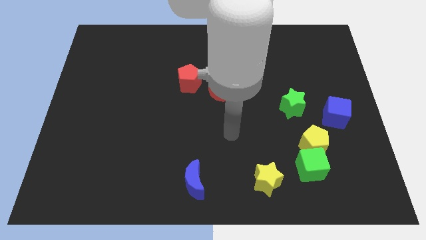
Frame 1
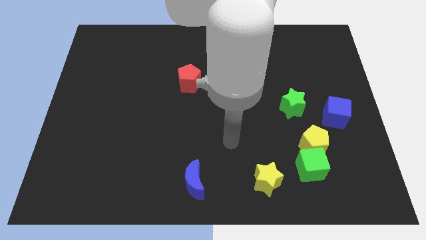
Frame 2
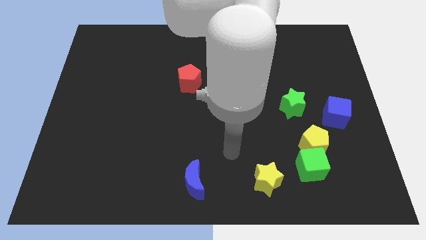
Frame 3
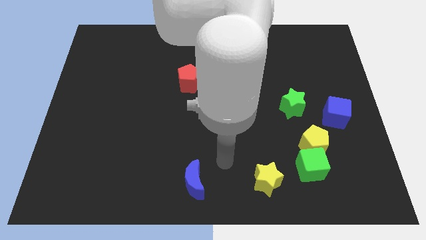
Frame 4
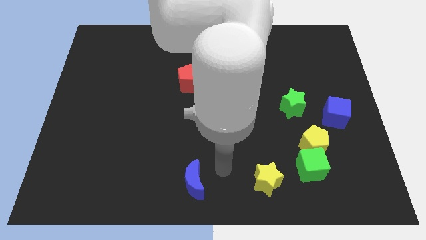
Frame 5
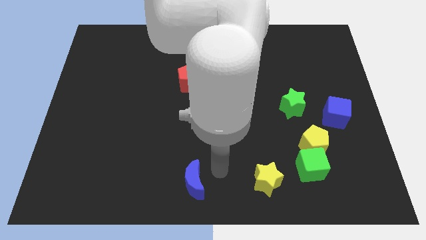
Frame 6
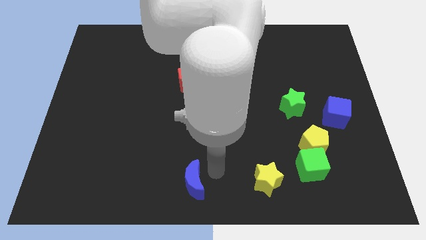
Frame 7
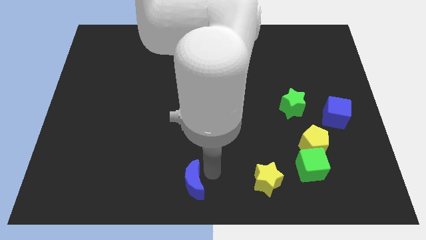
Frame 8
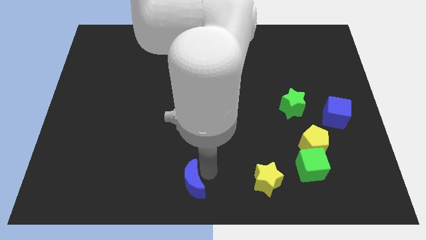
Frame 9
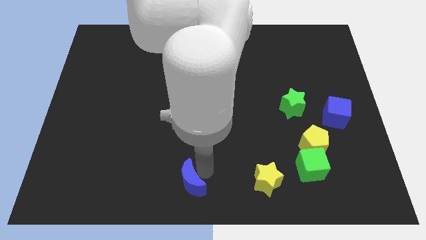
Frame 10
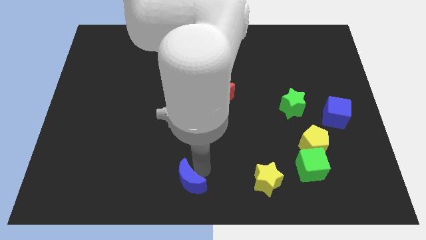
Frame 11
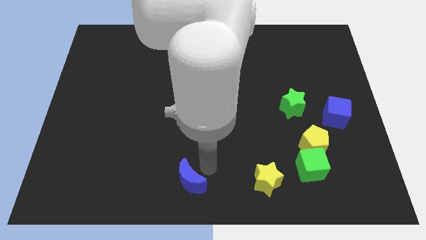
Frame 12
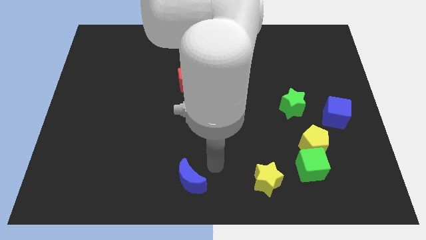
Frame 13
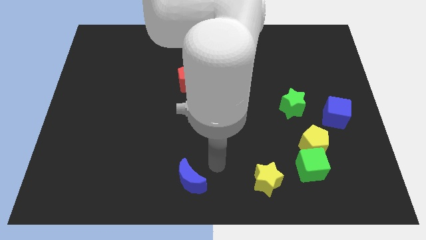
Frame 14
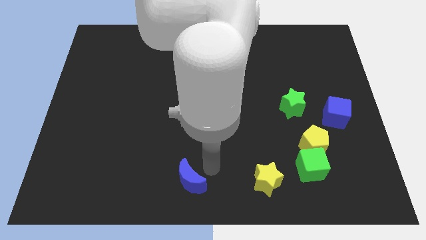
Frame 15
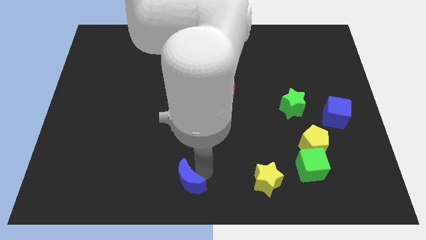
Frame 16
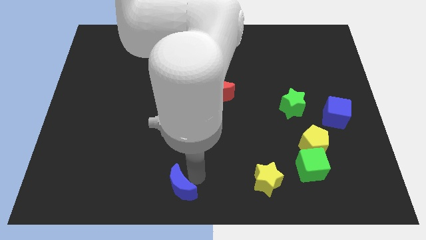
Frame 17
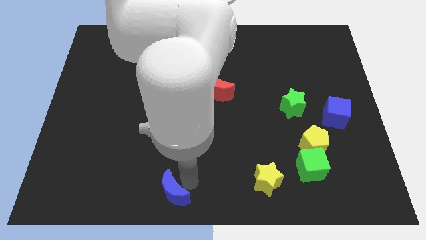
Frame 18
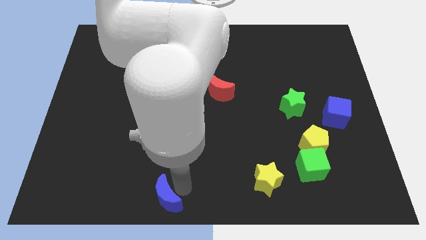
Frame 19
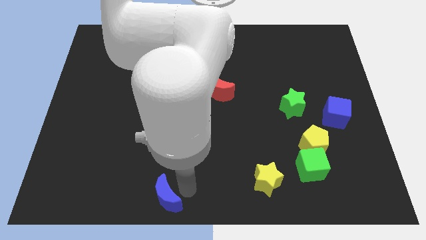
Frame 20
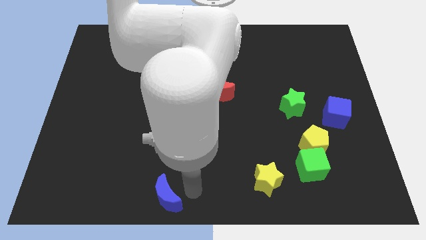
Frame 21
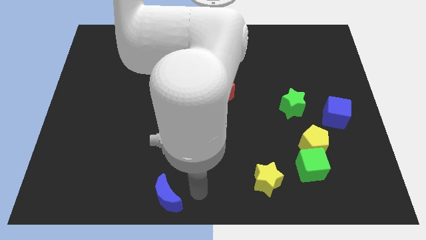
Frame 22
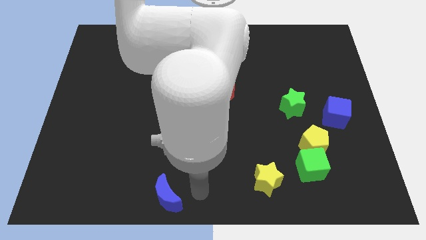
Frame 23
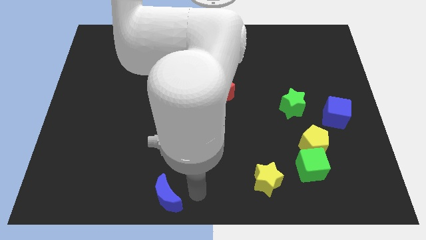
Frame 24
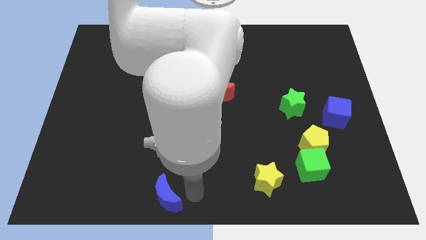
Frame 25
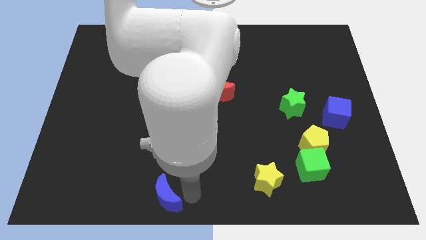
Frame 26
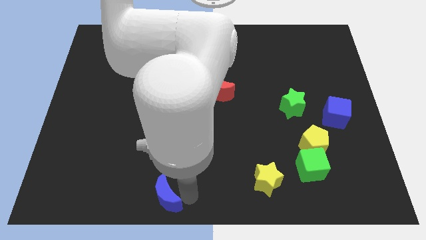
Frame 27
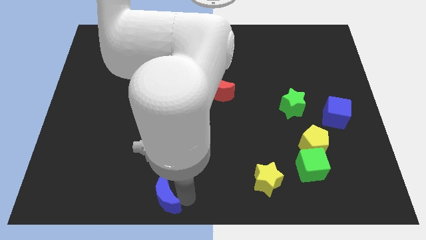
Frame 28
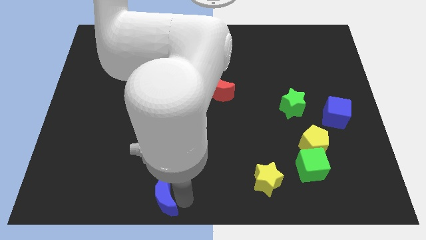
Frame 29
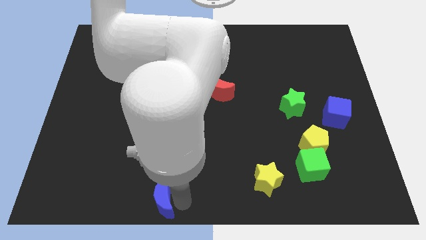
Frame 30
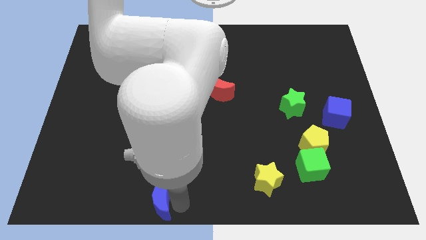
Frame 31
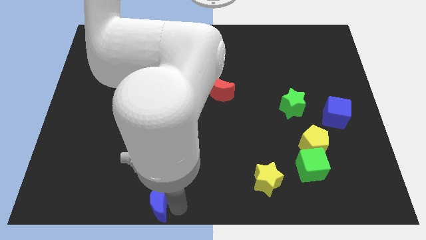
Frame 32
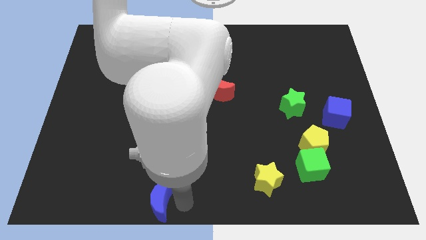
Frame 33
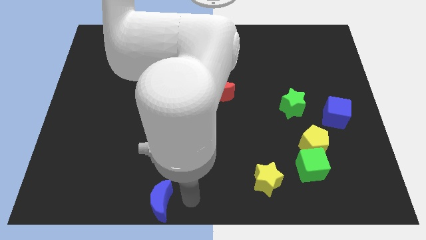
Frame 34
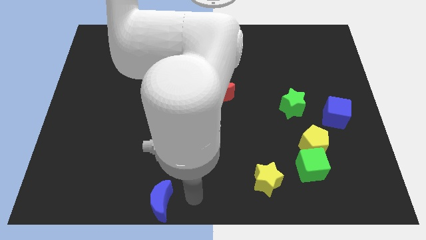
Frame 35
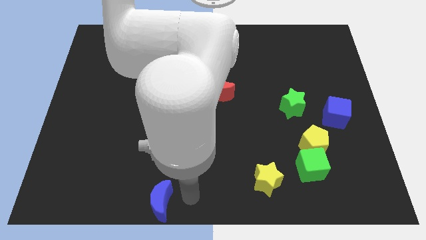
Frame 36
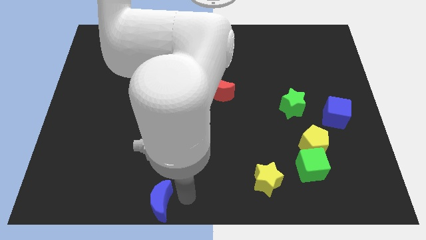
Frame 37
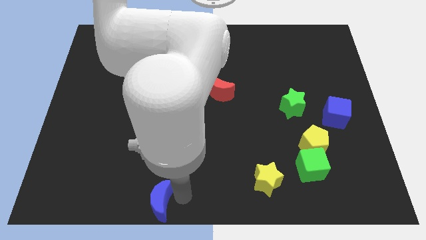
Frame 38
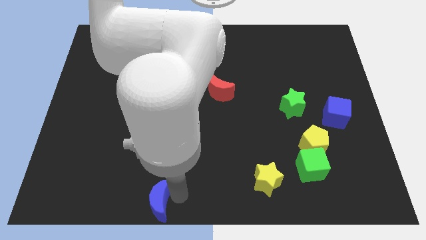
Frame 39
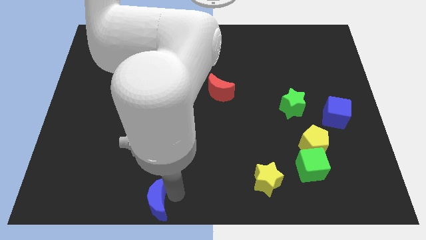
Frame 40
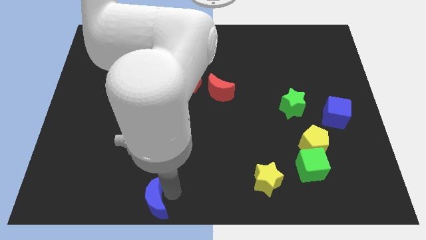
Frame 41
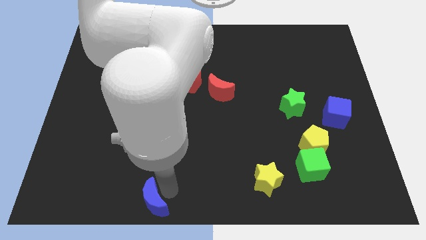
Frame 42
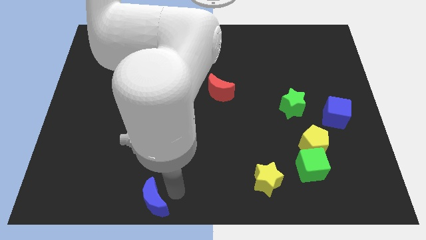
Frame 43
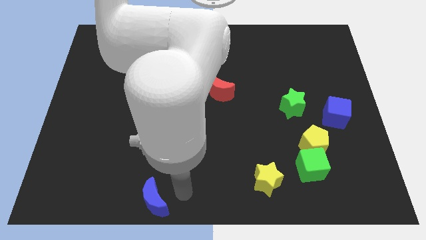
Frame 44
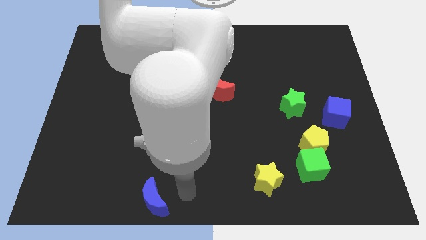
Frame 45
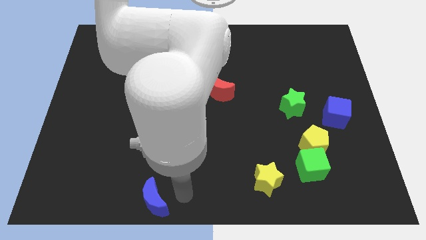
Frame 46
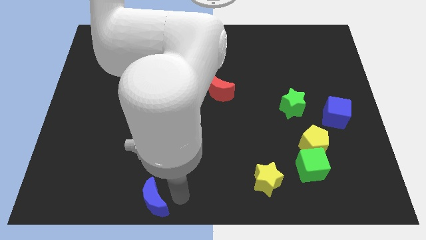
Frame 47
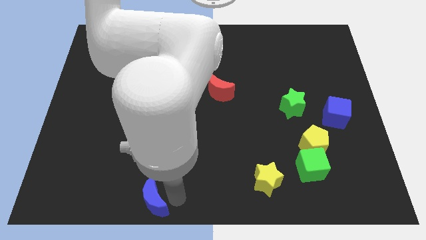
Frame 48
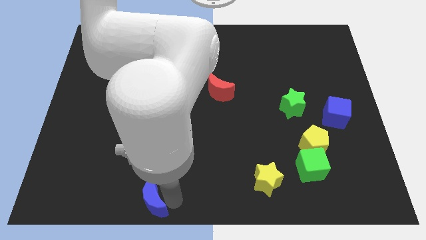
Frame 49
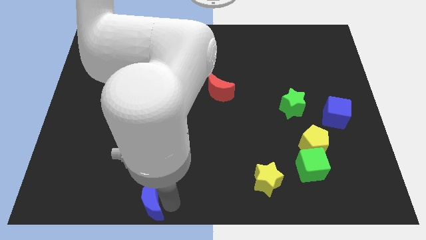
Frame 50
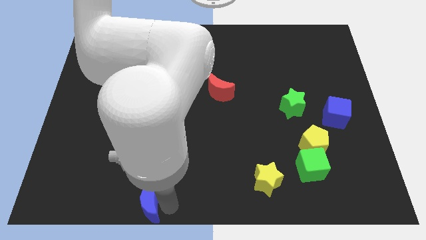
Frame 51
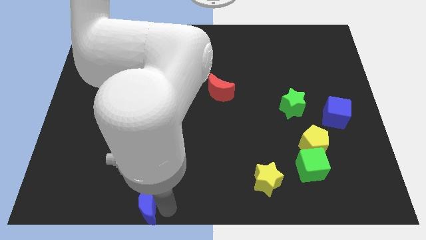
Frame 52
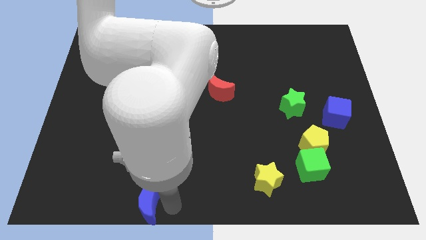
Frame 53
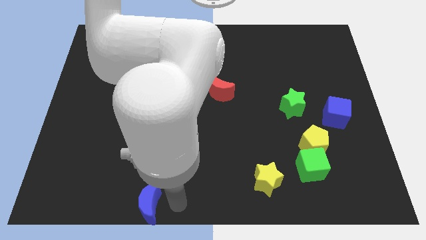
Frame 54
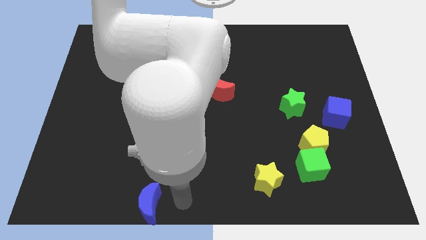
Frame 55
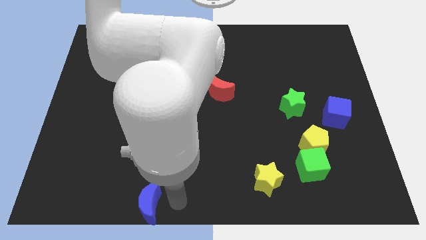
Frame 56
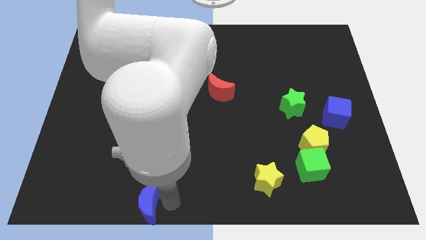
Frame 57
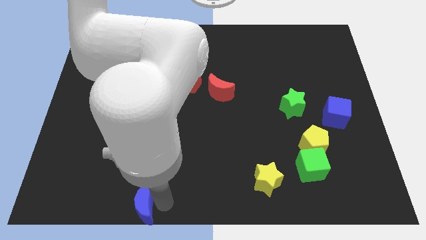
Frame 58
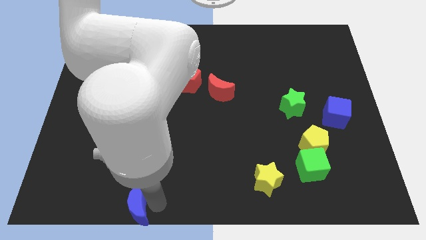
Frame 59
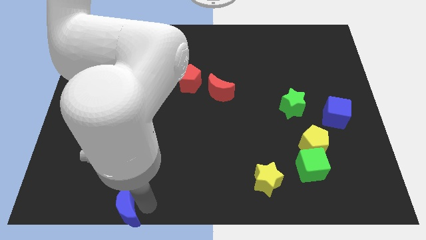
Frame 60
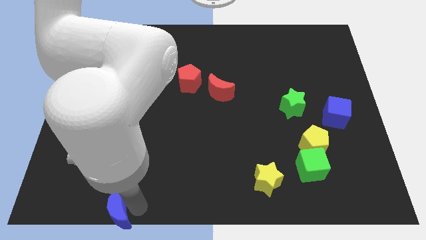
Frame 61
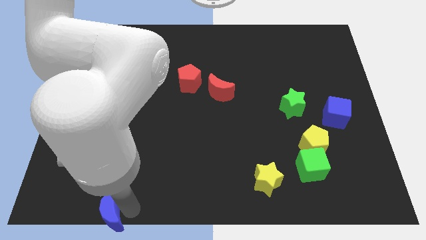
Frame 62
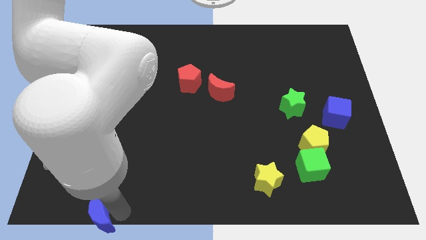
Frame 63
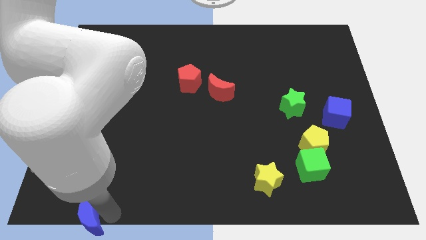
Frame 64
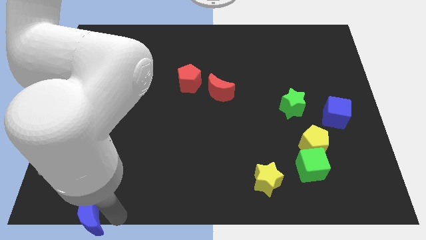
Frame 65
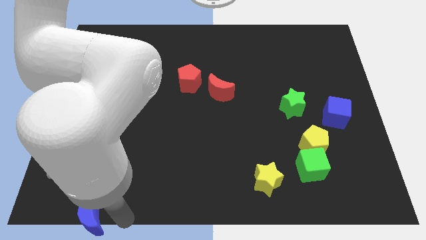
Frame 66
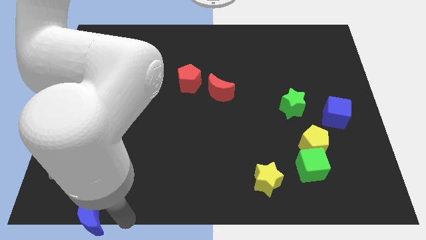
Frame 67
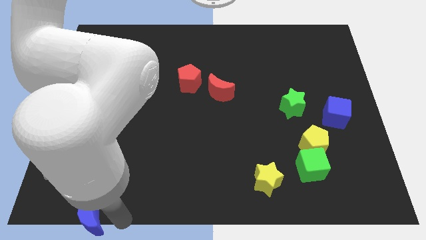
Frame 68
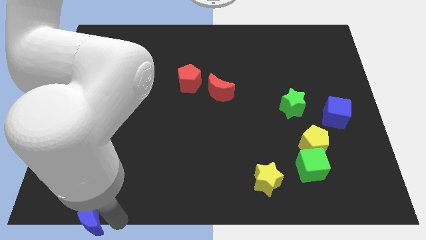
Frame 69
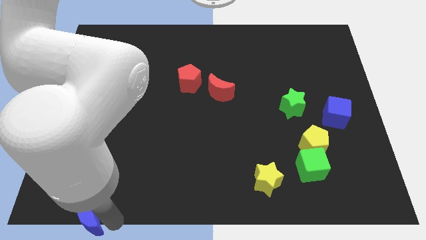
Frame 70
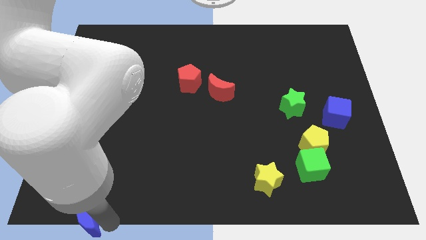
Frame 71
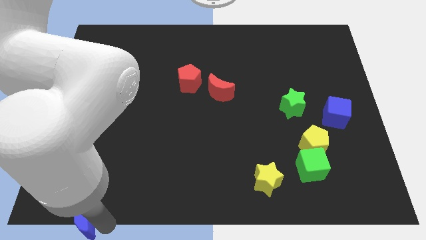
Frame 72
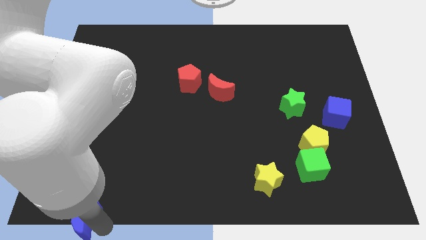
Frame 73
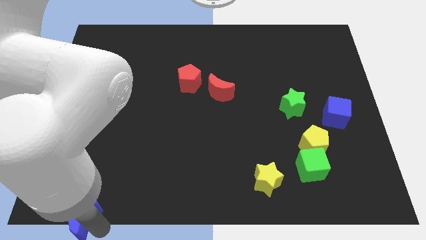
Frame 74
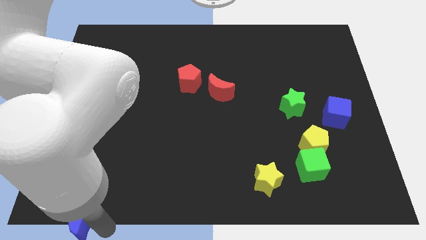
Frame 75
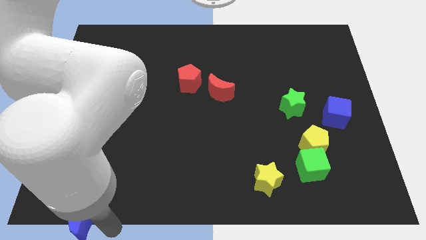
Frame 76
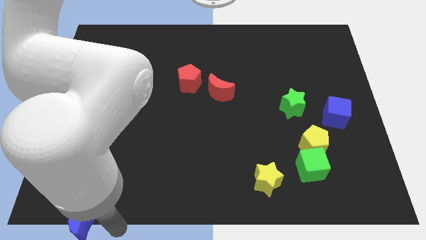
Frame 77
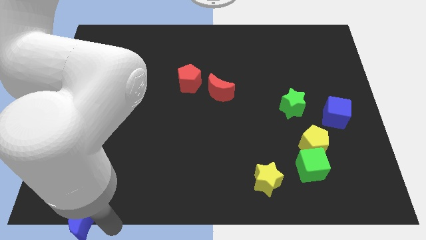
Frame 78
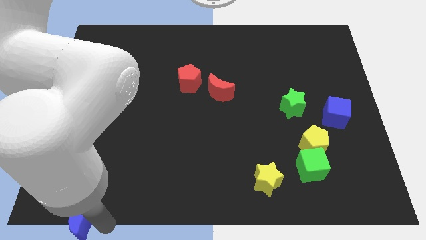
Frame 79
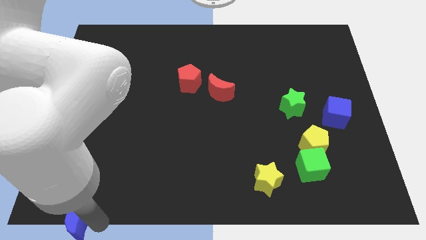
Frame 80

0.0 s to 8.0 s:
put the blue moon to the bottom left corner
